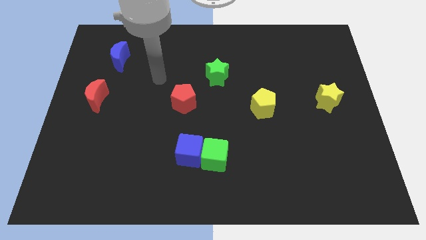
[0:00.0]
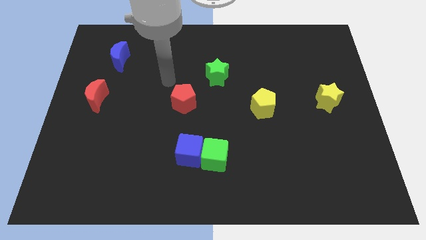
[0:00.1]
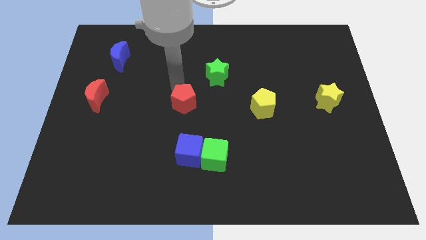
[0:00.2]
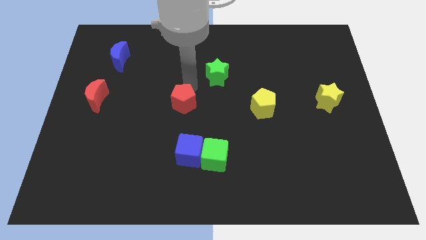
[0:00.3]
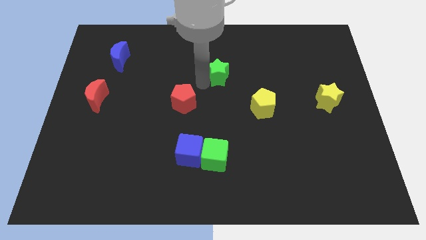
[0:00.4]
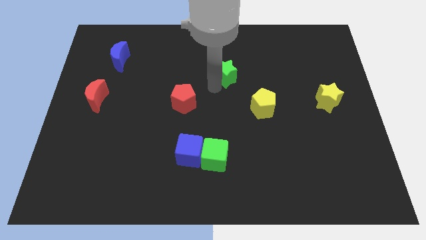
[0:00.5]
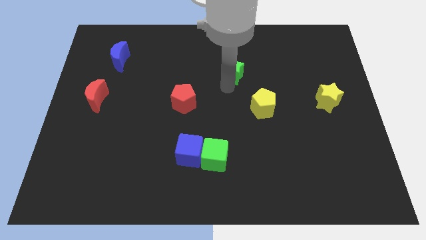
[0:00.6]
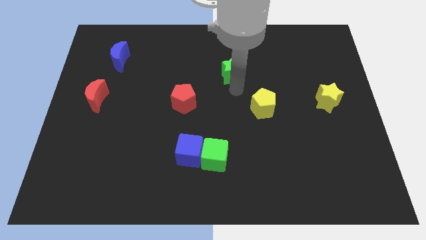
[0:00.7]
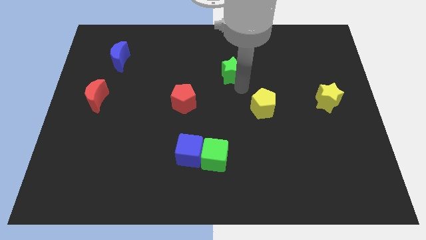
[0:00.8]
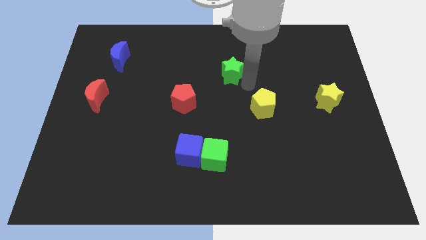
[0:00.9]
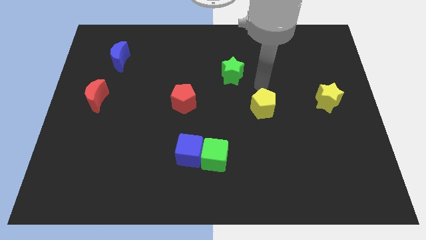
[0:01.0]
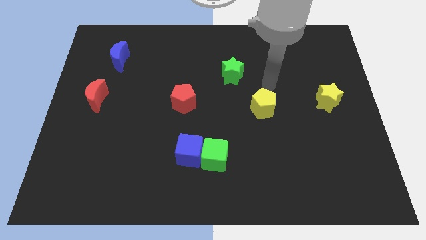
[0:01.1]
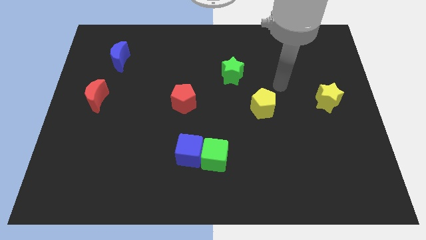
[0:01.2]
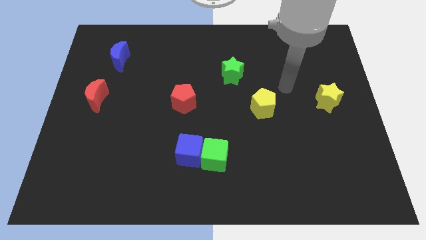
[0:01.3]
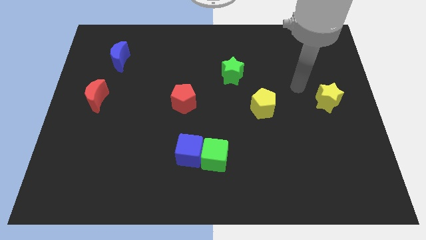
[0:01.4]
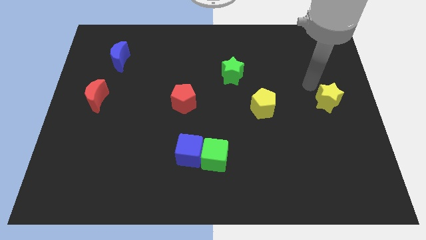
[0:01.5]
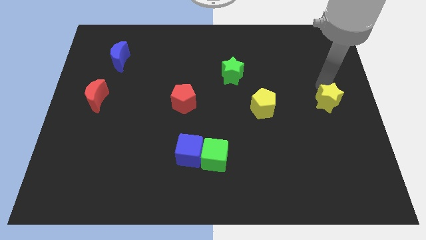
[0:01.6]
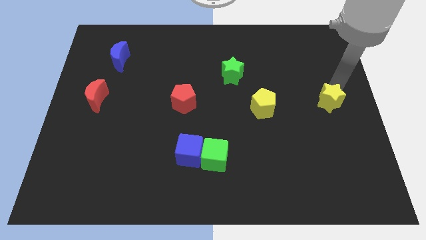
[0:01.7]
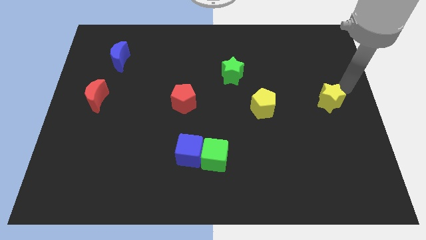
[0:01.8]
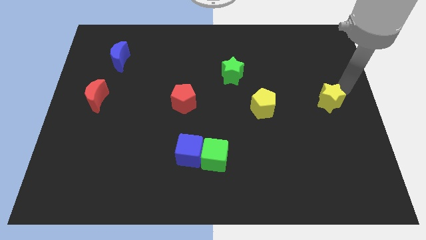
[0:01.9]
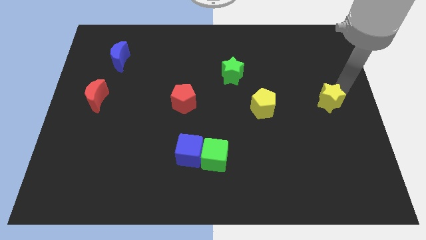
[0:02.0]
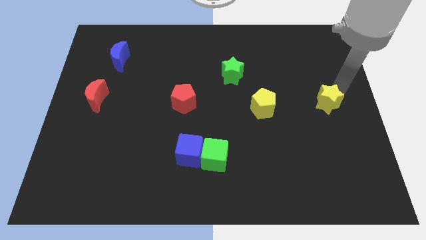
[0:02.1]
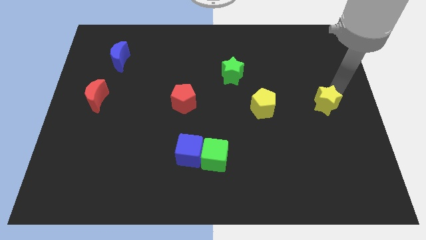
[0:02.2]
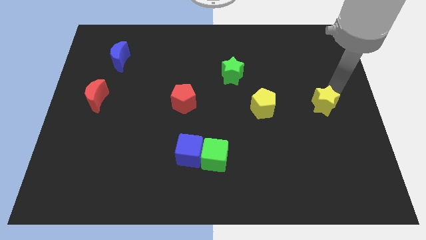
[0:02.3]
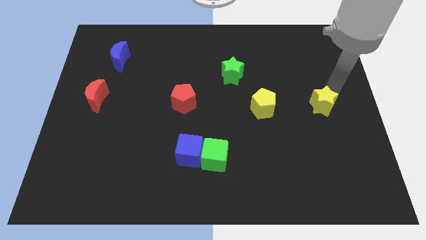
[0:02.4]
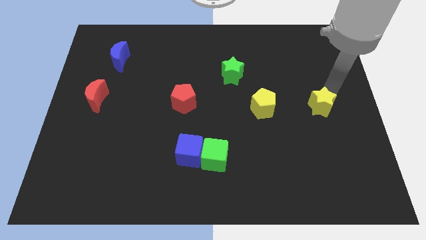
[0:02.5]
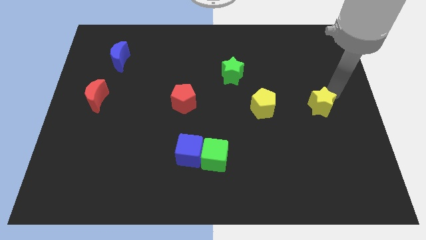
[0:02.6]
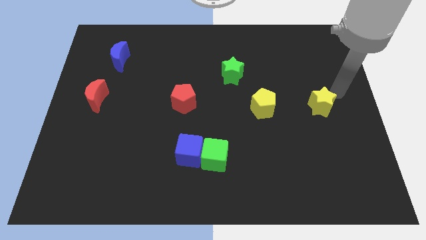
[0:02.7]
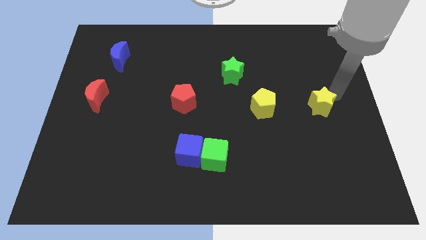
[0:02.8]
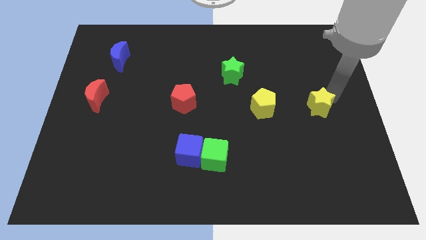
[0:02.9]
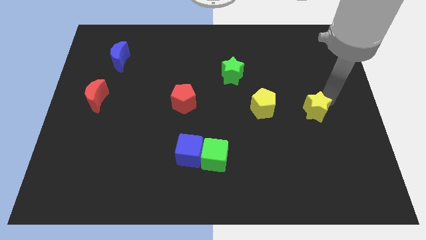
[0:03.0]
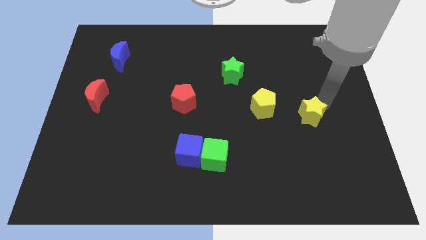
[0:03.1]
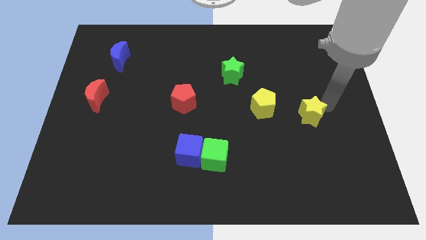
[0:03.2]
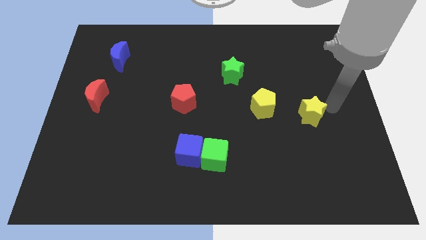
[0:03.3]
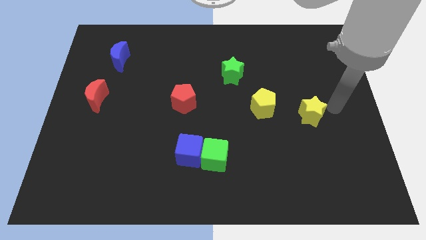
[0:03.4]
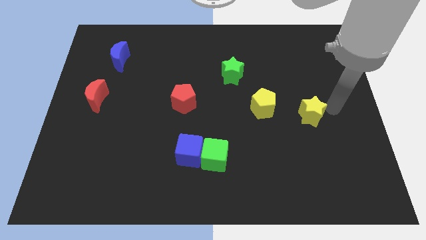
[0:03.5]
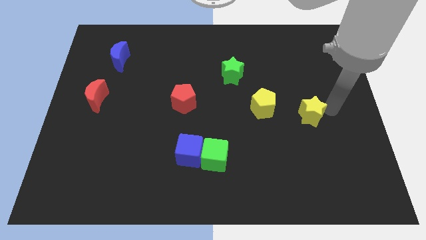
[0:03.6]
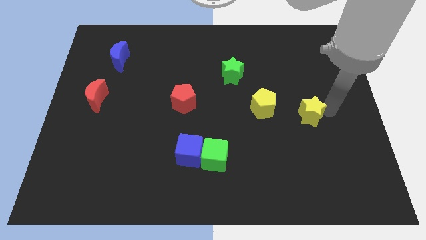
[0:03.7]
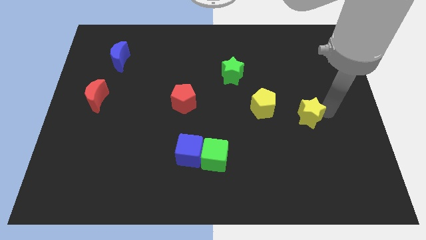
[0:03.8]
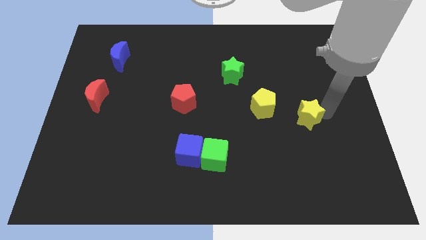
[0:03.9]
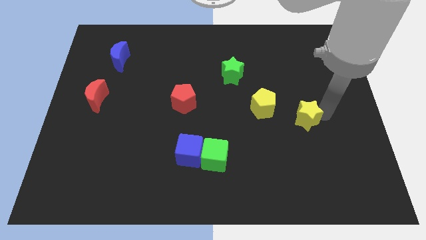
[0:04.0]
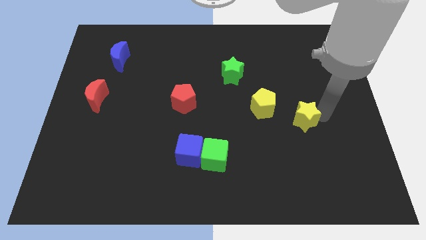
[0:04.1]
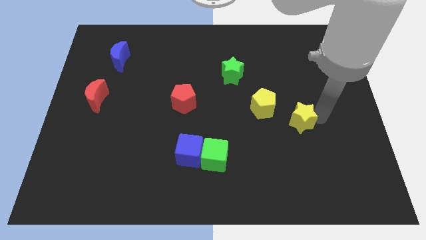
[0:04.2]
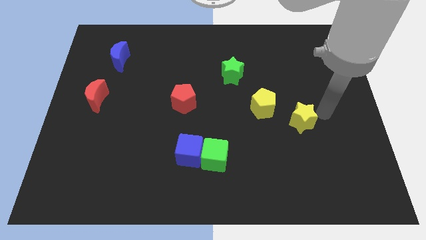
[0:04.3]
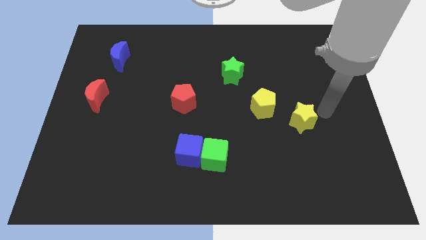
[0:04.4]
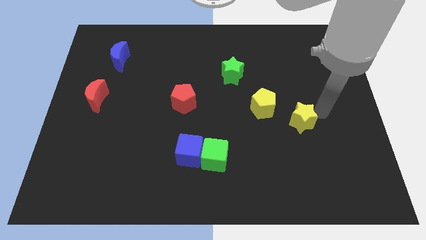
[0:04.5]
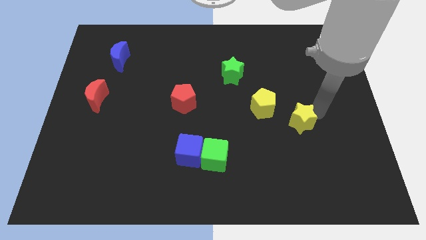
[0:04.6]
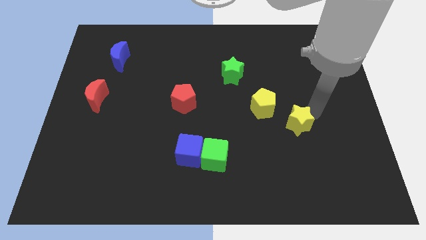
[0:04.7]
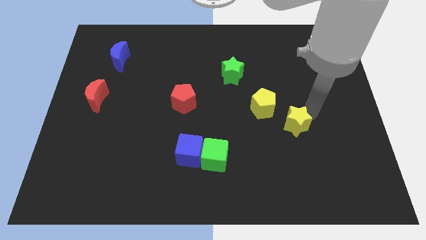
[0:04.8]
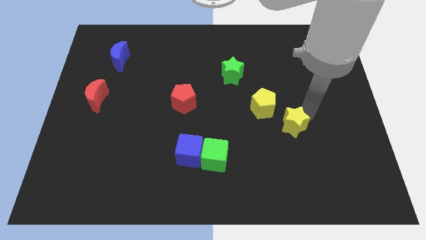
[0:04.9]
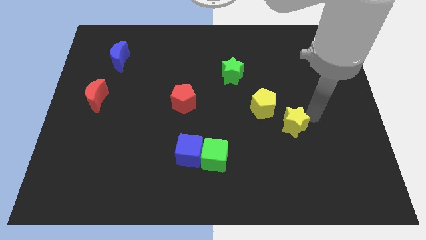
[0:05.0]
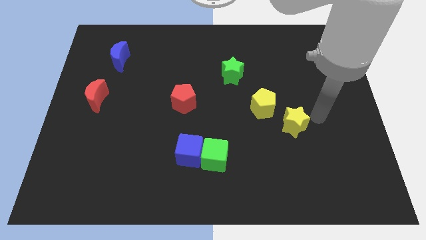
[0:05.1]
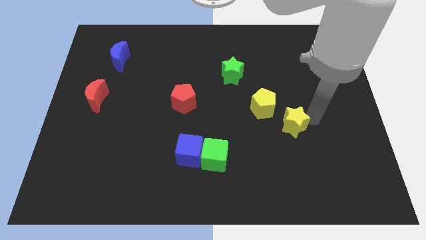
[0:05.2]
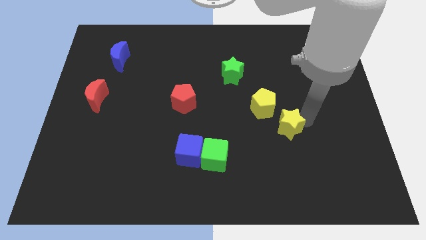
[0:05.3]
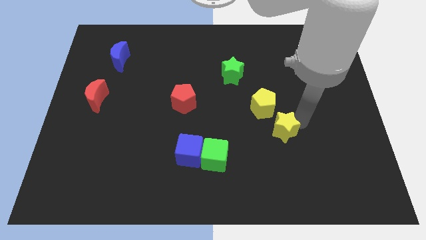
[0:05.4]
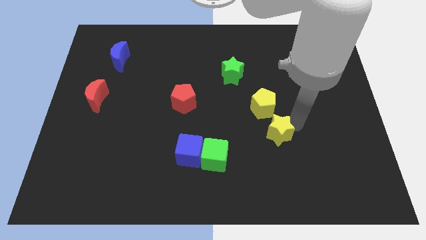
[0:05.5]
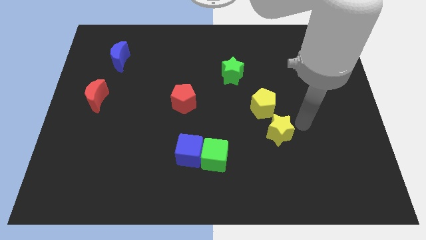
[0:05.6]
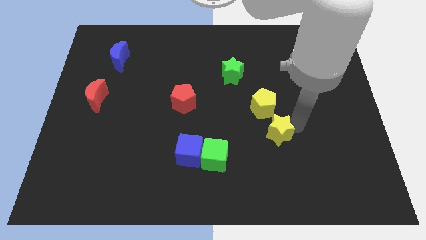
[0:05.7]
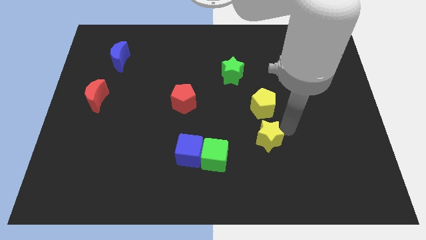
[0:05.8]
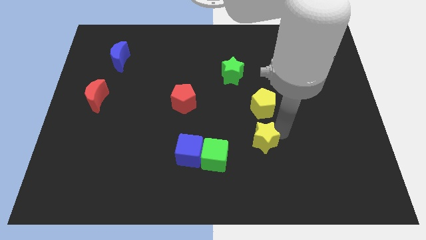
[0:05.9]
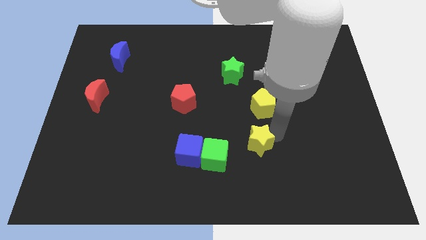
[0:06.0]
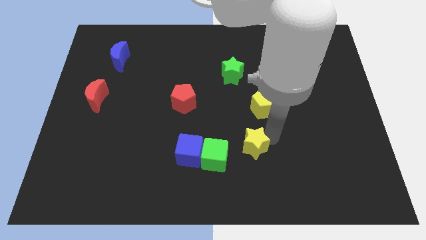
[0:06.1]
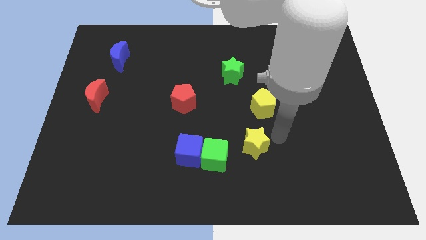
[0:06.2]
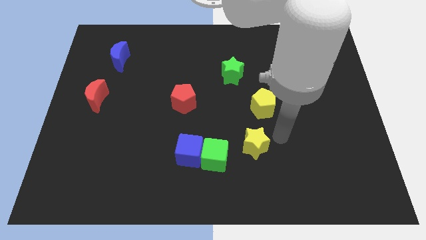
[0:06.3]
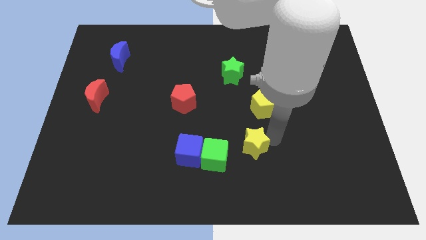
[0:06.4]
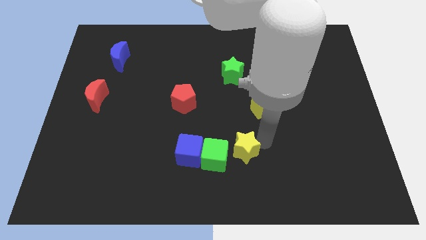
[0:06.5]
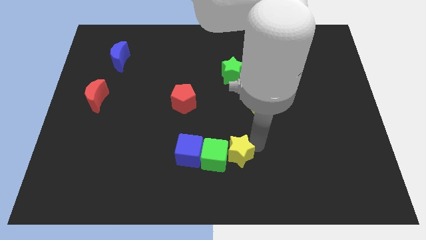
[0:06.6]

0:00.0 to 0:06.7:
put the yellow star towards the green cube

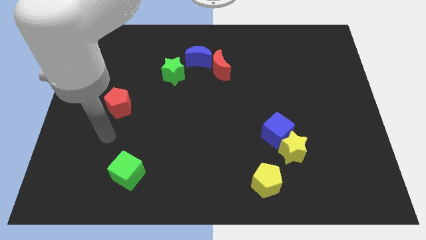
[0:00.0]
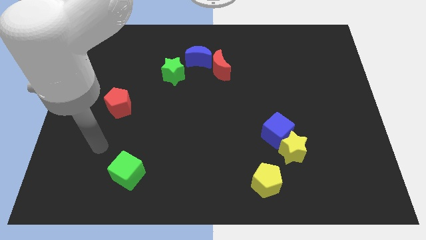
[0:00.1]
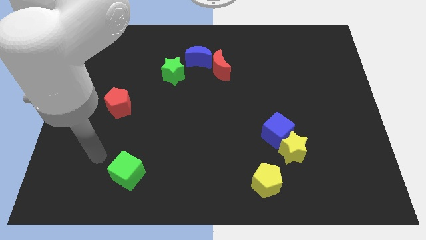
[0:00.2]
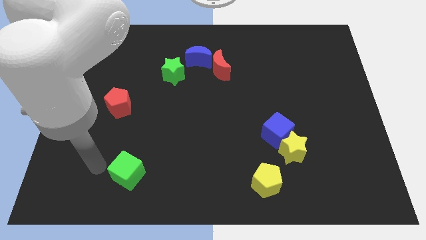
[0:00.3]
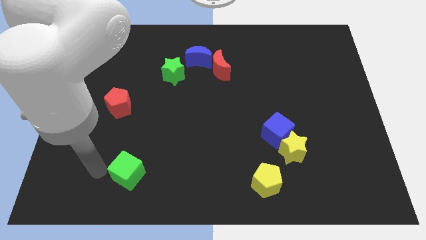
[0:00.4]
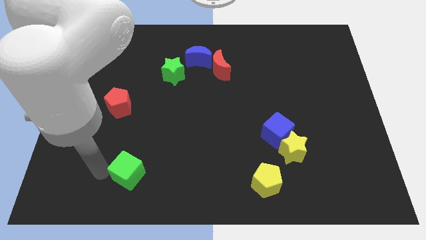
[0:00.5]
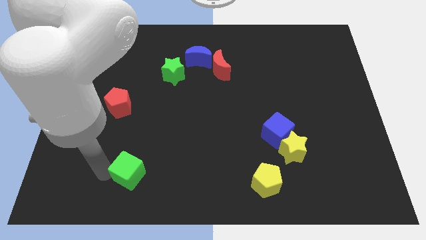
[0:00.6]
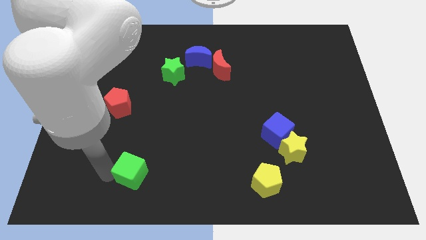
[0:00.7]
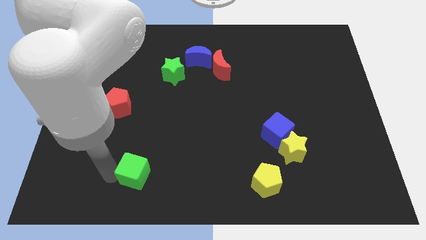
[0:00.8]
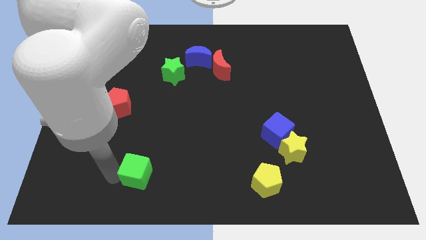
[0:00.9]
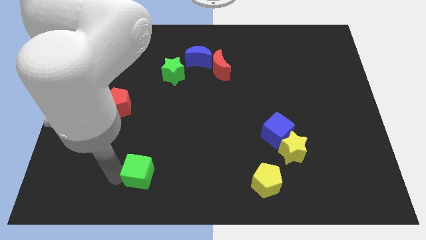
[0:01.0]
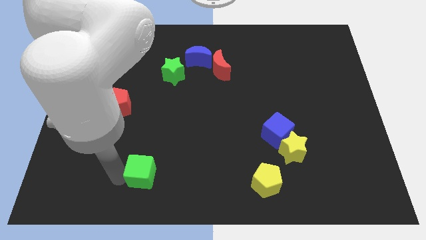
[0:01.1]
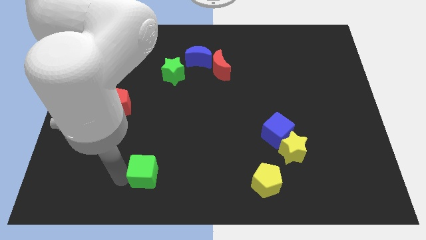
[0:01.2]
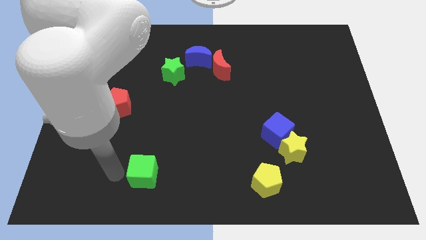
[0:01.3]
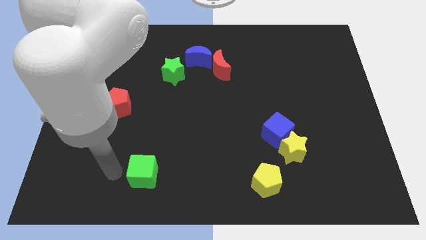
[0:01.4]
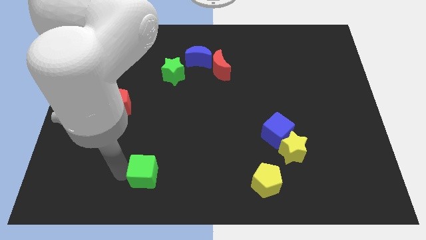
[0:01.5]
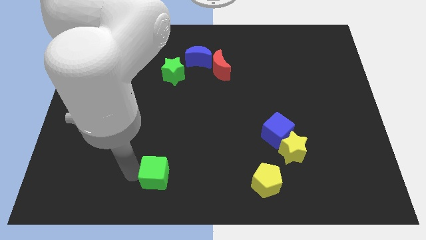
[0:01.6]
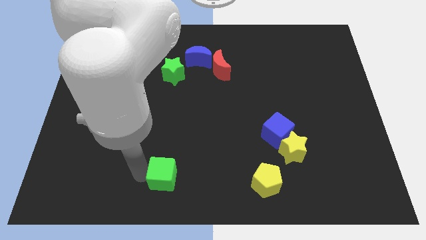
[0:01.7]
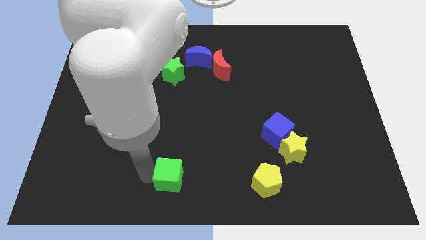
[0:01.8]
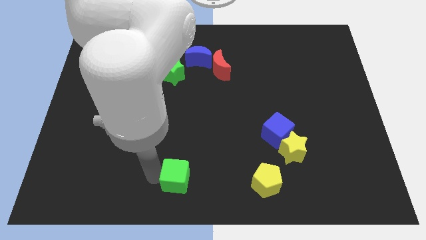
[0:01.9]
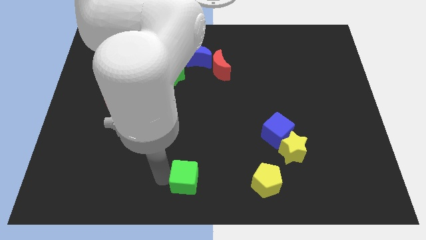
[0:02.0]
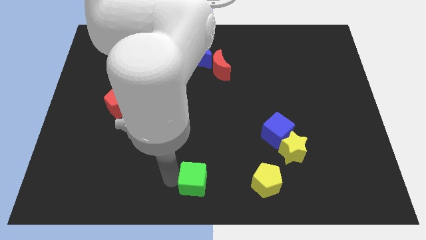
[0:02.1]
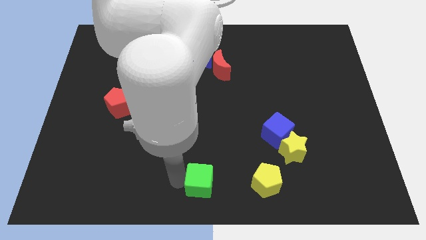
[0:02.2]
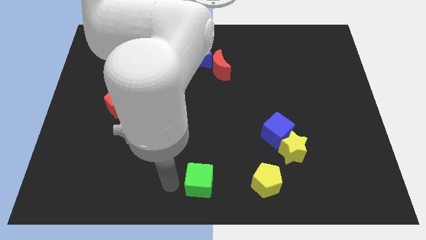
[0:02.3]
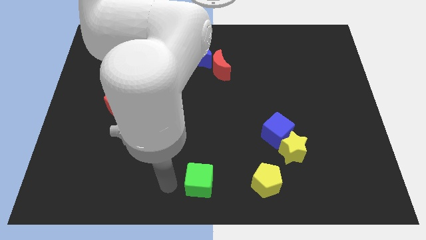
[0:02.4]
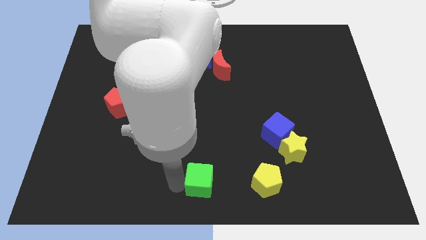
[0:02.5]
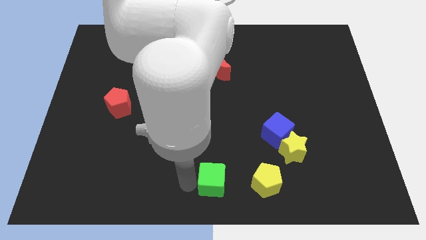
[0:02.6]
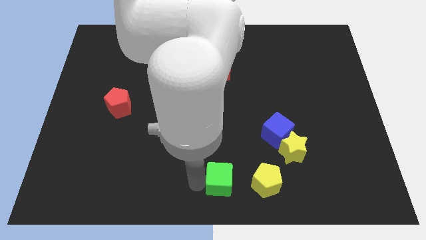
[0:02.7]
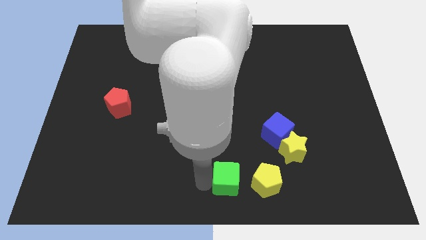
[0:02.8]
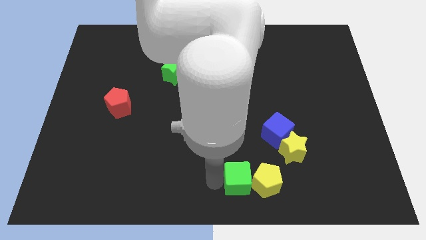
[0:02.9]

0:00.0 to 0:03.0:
put the green cube next to the yellow pentagon
